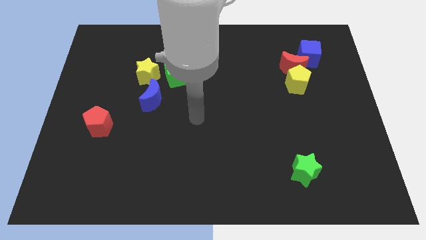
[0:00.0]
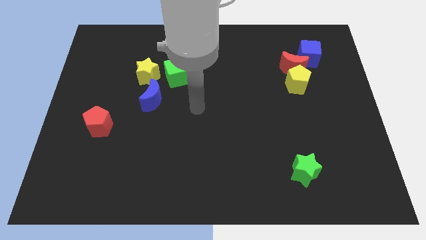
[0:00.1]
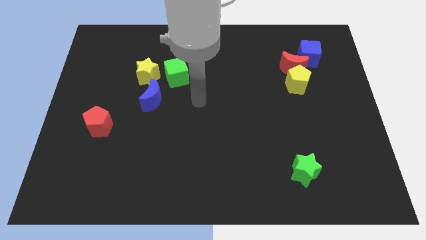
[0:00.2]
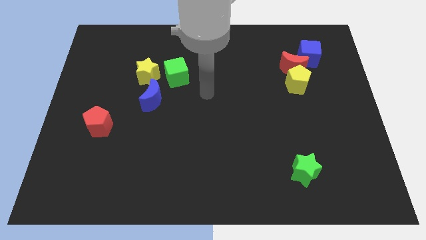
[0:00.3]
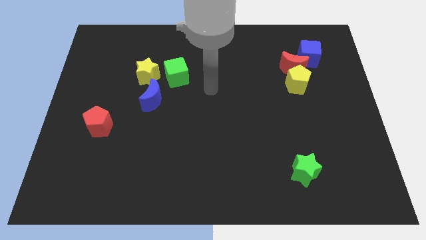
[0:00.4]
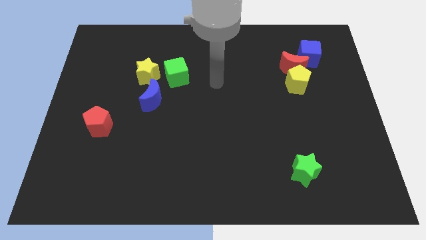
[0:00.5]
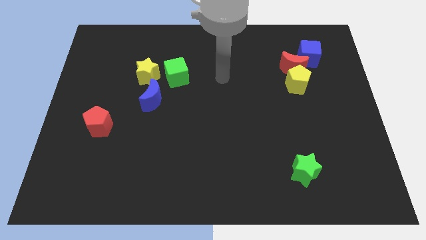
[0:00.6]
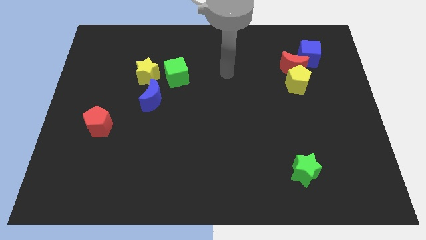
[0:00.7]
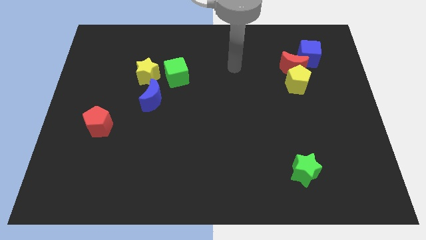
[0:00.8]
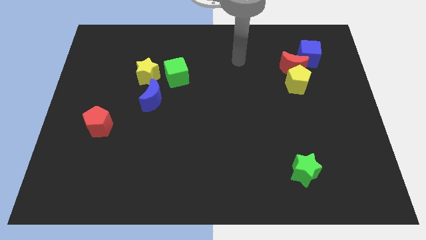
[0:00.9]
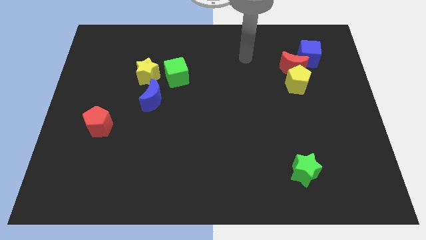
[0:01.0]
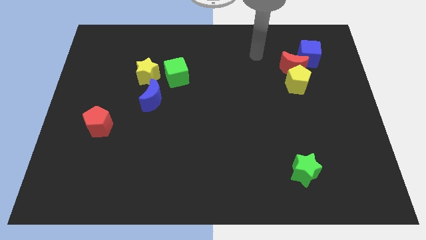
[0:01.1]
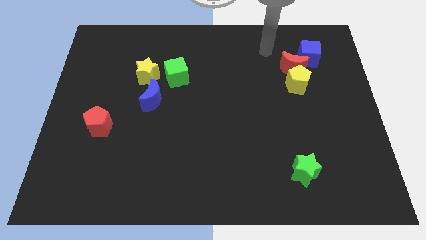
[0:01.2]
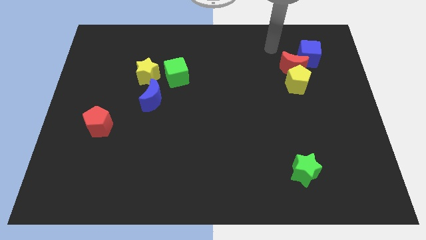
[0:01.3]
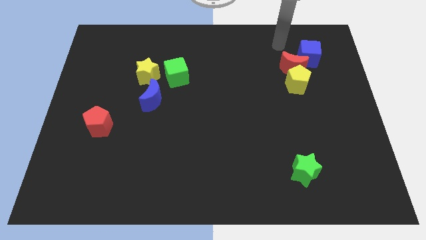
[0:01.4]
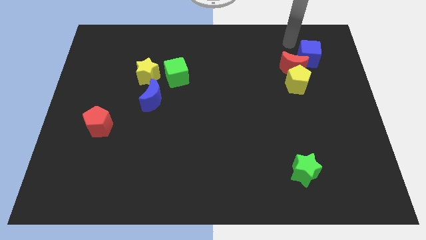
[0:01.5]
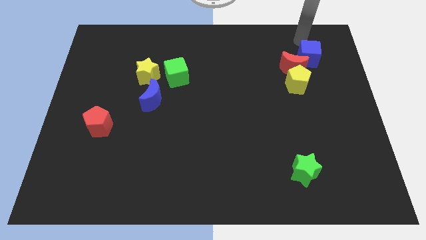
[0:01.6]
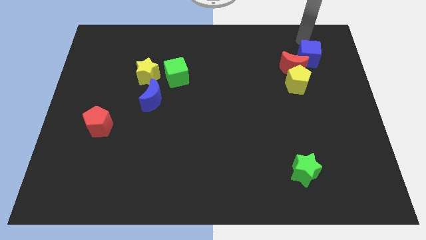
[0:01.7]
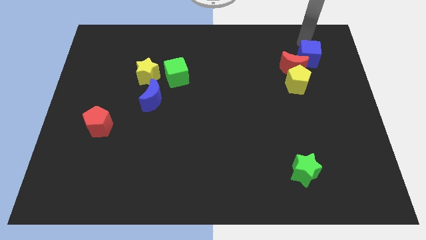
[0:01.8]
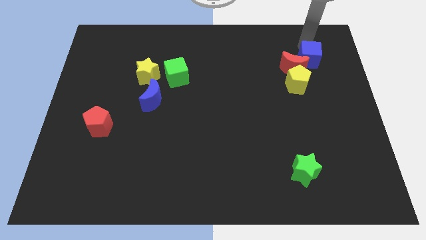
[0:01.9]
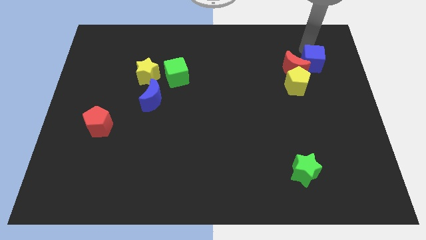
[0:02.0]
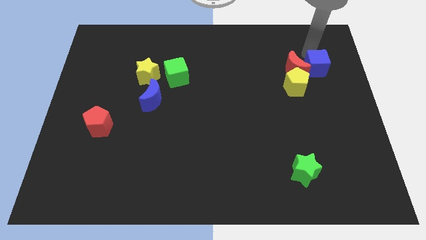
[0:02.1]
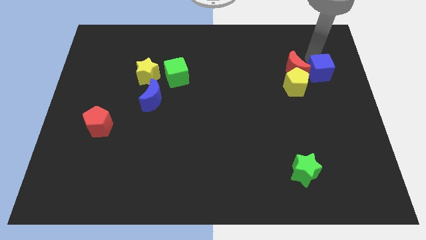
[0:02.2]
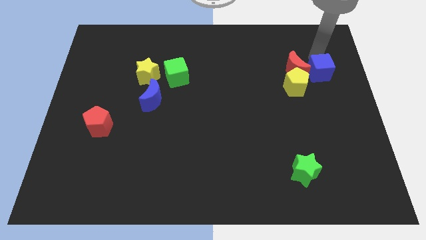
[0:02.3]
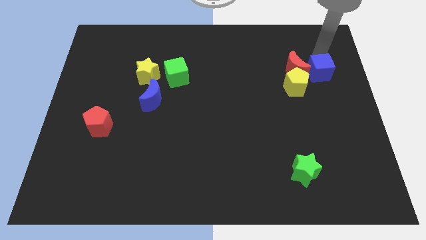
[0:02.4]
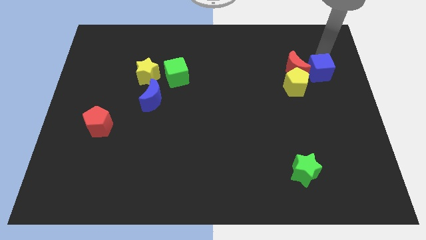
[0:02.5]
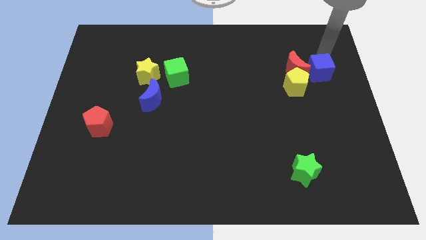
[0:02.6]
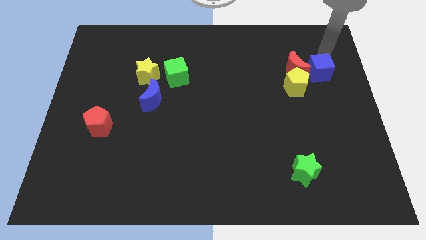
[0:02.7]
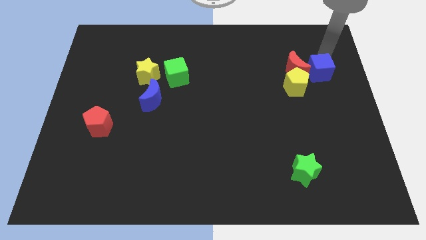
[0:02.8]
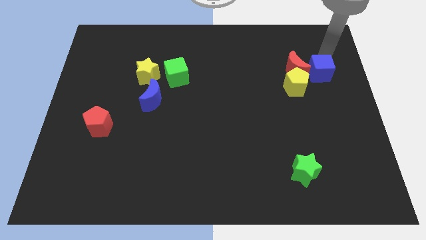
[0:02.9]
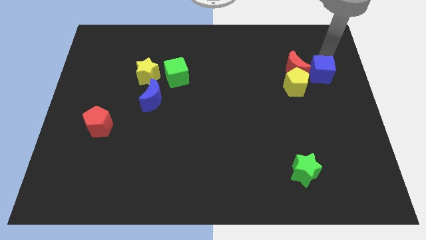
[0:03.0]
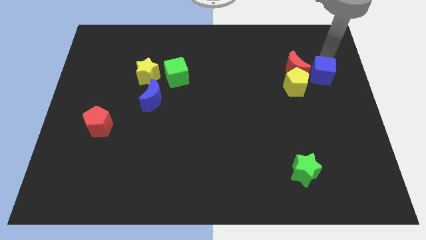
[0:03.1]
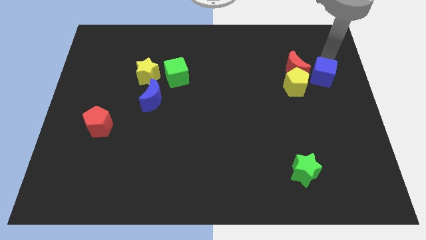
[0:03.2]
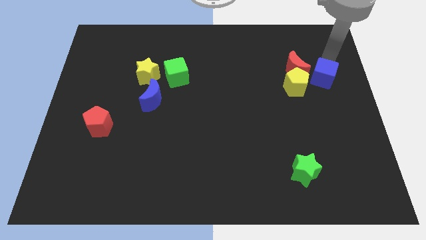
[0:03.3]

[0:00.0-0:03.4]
slightly push the blue cube down

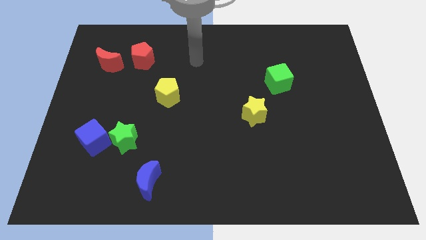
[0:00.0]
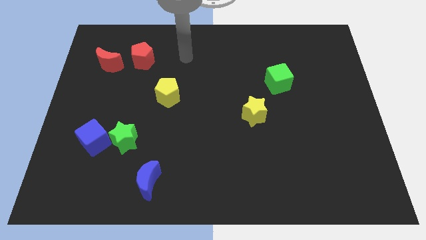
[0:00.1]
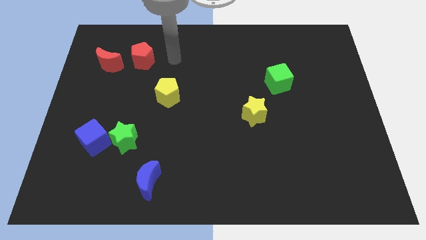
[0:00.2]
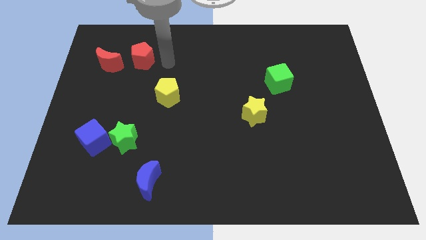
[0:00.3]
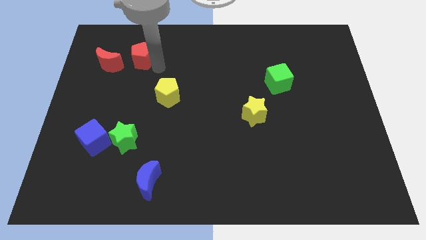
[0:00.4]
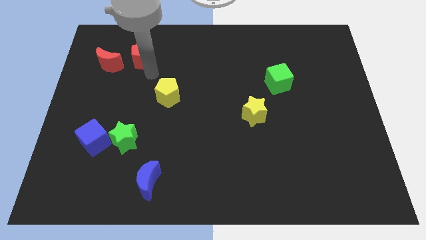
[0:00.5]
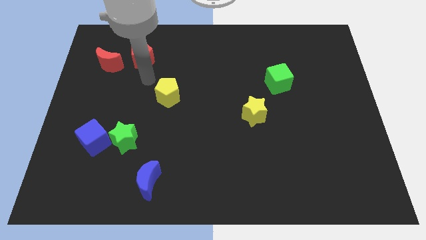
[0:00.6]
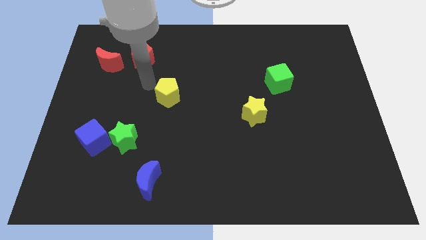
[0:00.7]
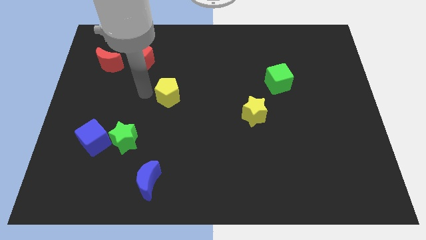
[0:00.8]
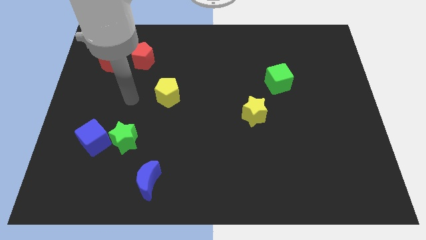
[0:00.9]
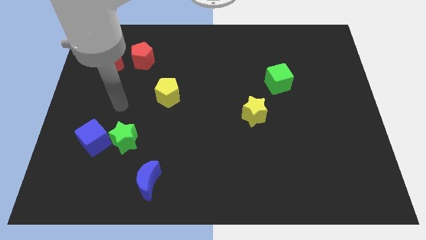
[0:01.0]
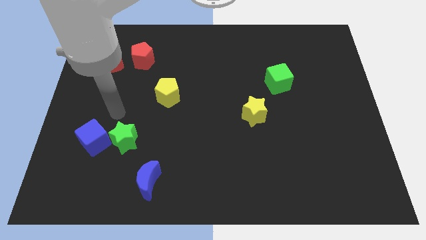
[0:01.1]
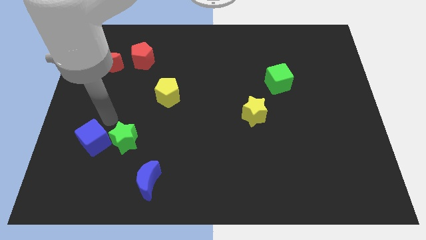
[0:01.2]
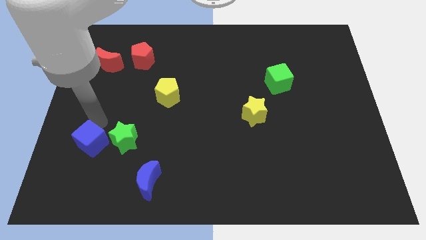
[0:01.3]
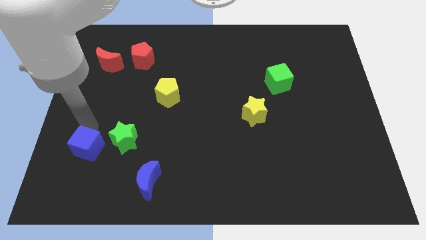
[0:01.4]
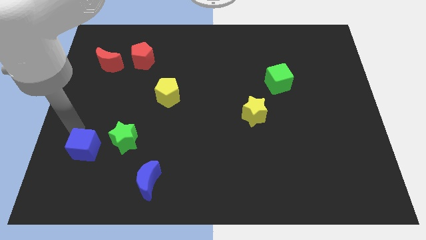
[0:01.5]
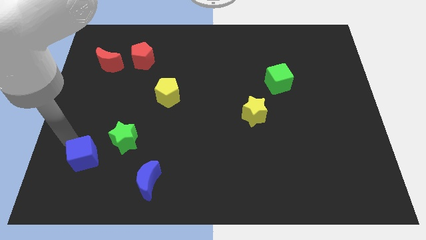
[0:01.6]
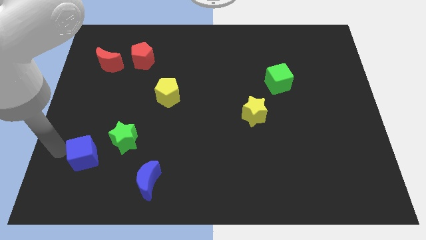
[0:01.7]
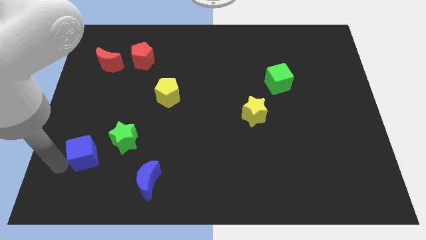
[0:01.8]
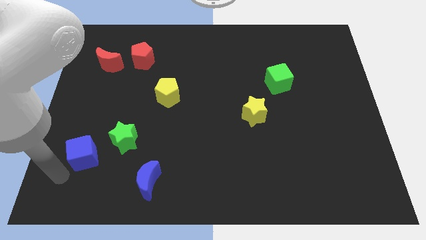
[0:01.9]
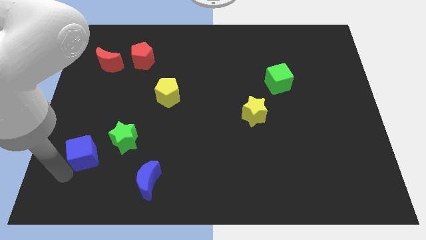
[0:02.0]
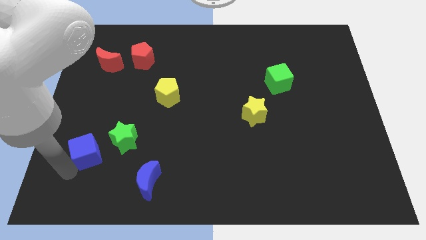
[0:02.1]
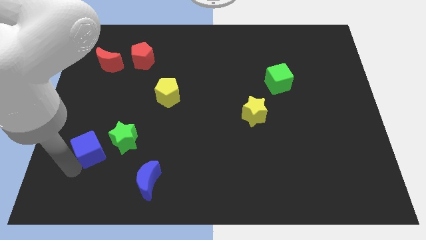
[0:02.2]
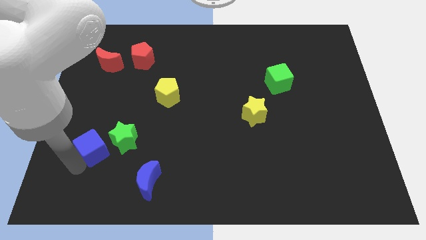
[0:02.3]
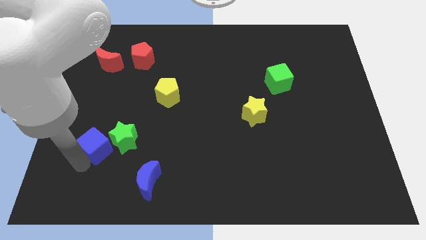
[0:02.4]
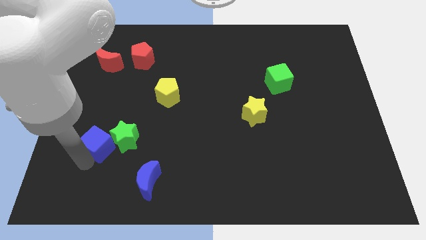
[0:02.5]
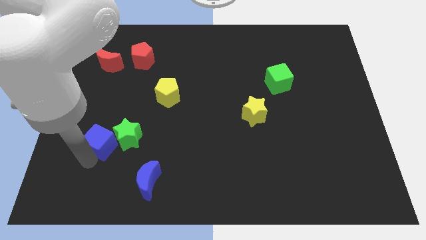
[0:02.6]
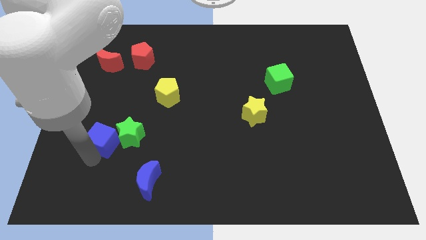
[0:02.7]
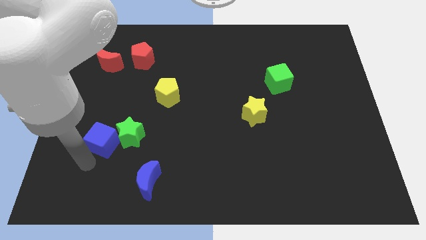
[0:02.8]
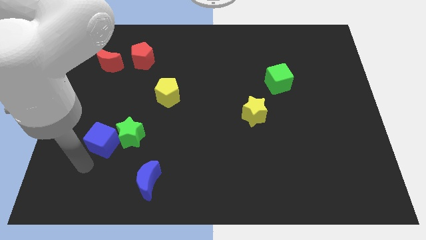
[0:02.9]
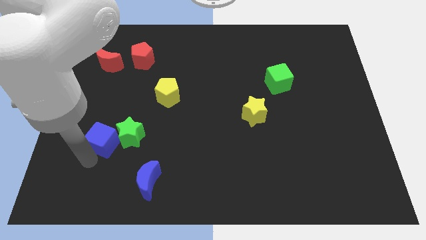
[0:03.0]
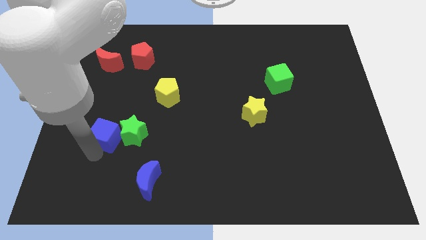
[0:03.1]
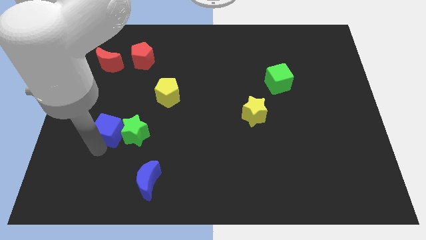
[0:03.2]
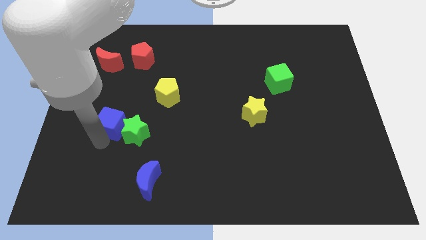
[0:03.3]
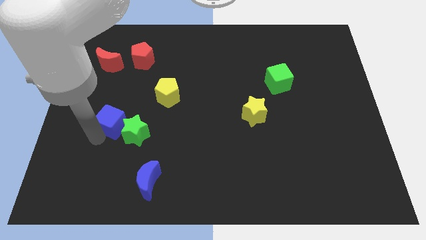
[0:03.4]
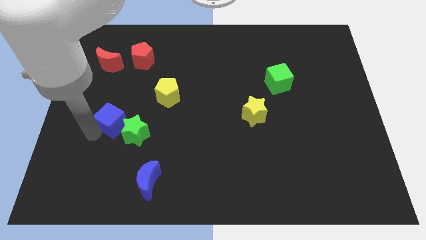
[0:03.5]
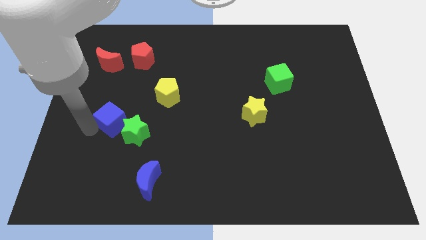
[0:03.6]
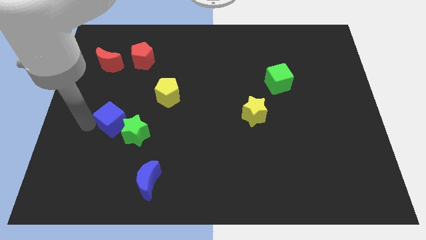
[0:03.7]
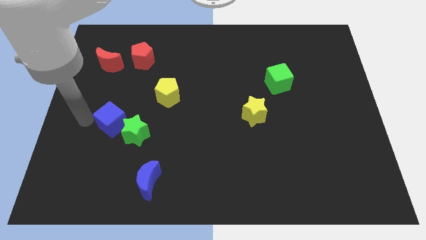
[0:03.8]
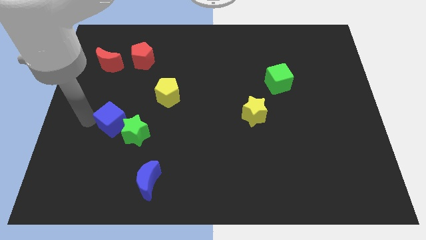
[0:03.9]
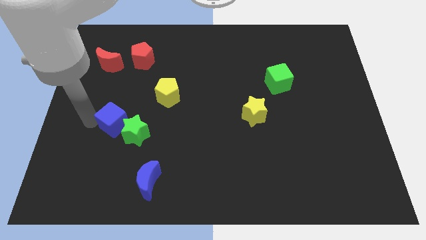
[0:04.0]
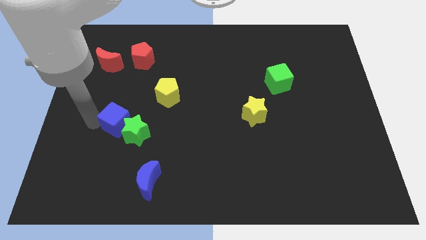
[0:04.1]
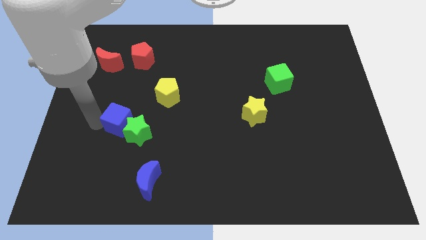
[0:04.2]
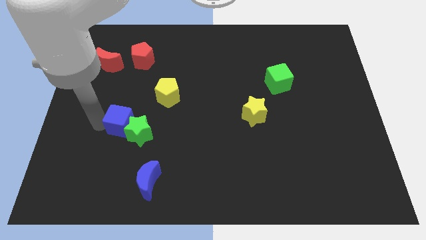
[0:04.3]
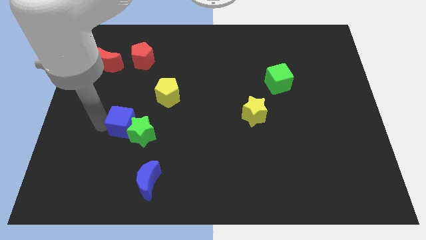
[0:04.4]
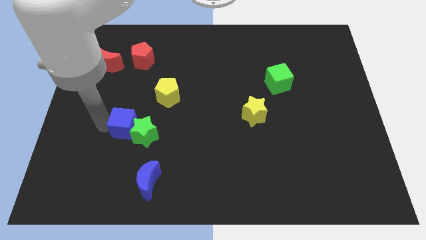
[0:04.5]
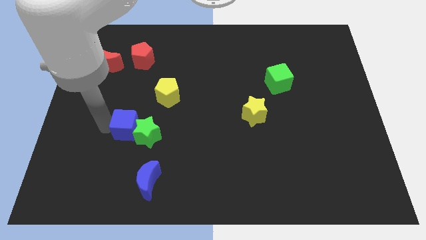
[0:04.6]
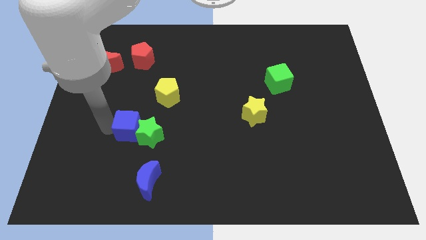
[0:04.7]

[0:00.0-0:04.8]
move the blue cube a bit to the right
